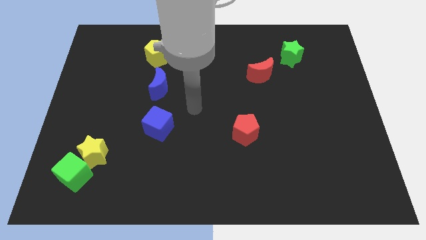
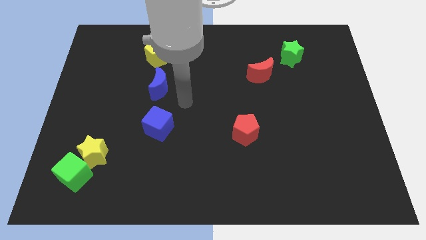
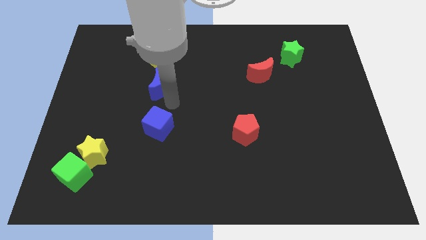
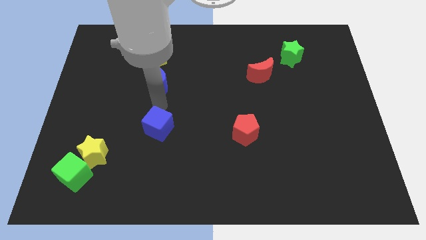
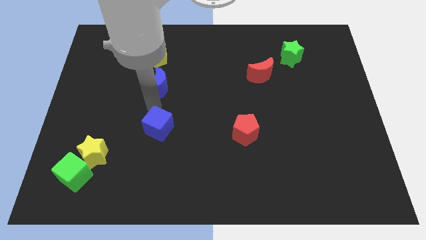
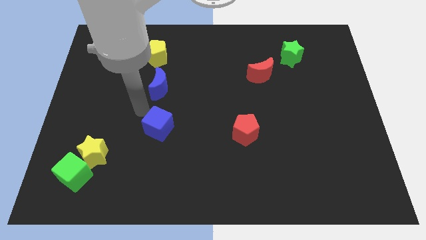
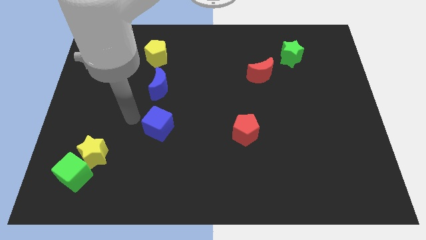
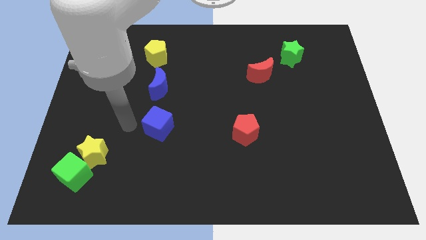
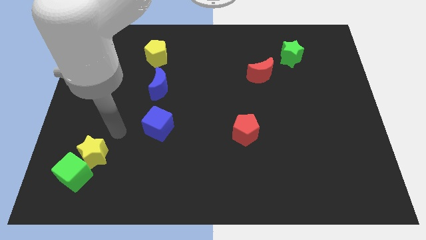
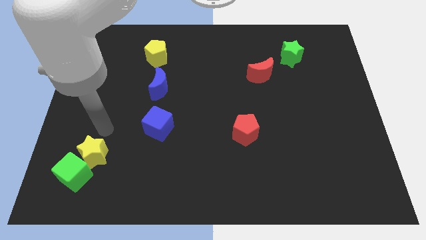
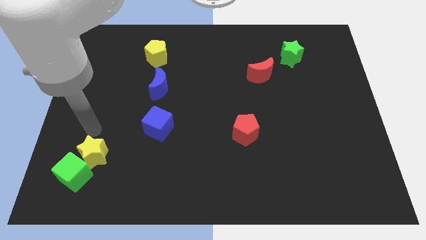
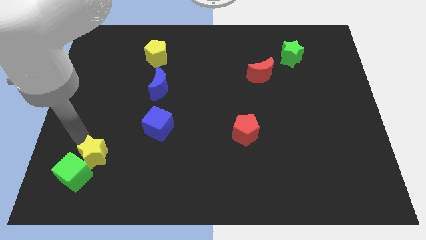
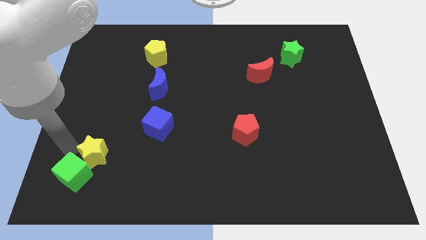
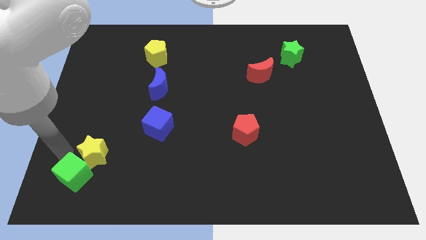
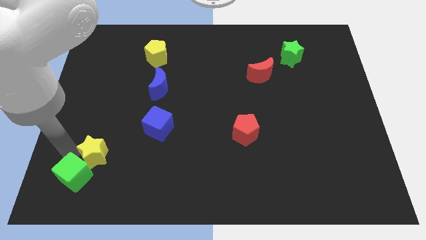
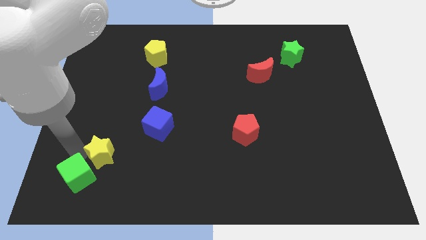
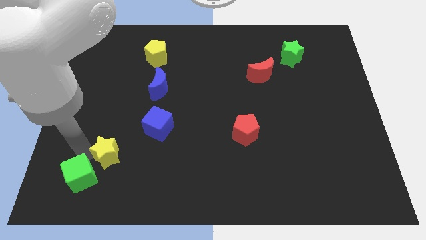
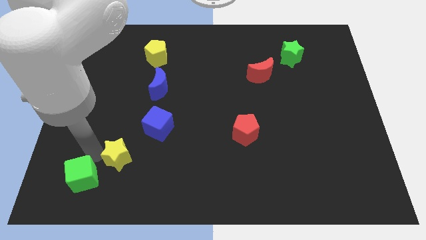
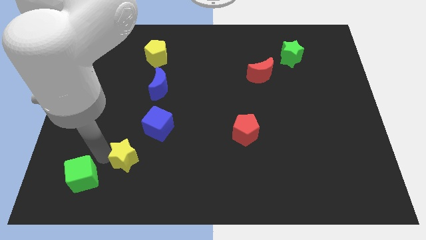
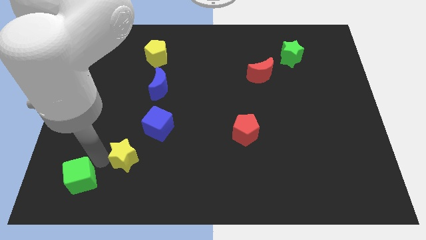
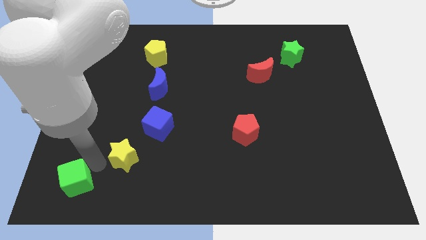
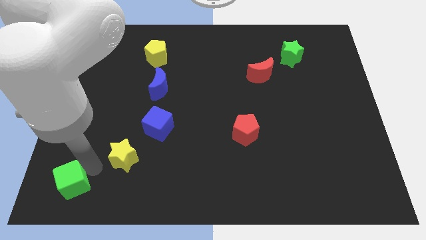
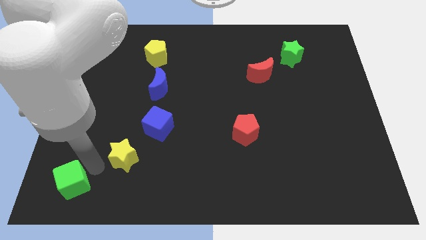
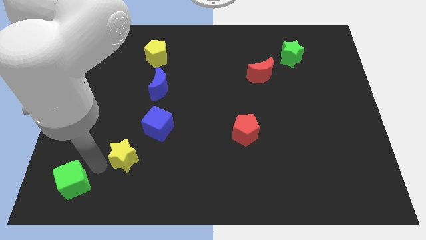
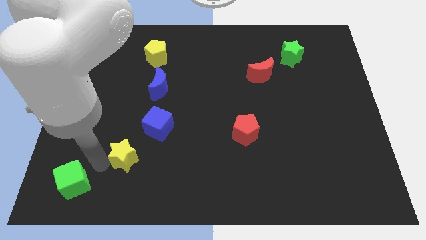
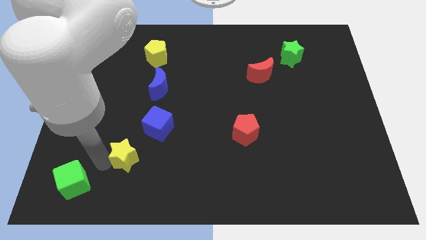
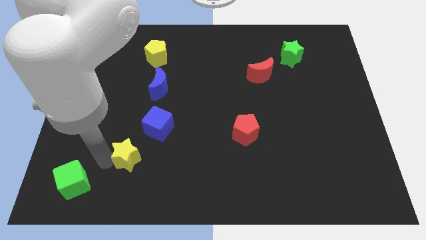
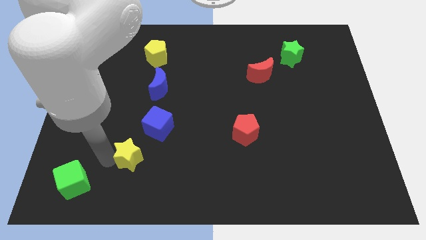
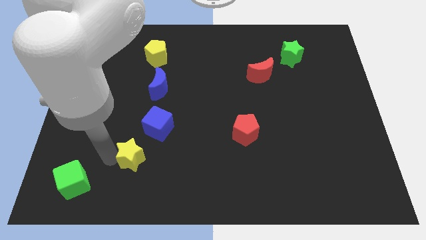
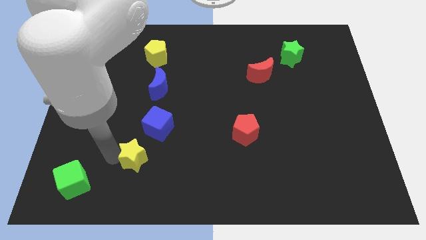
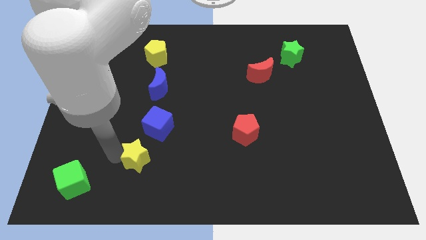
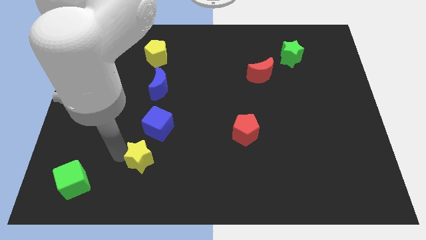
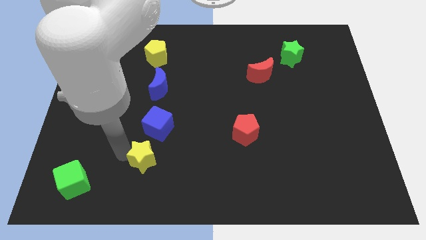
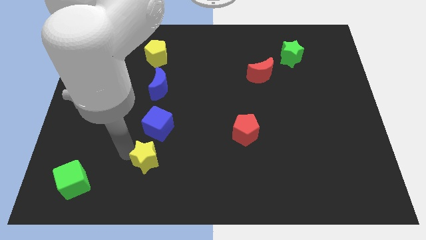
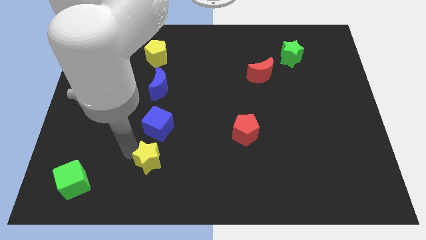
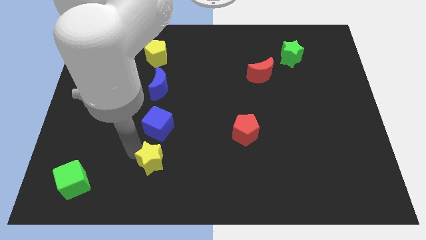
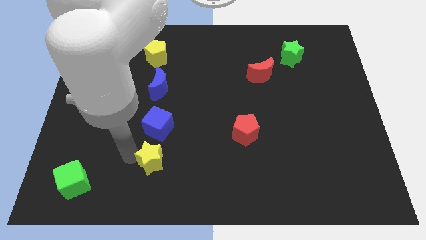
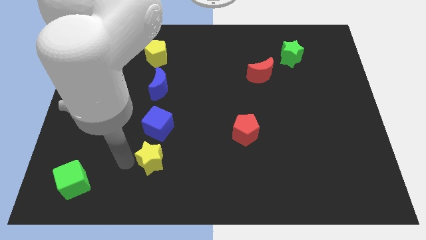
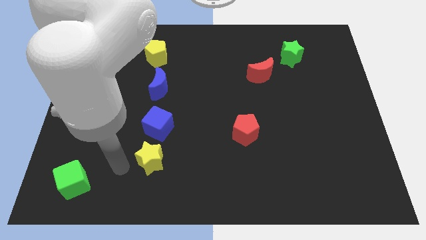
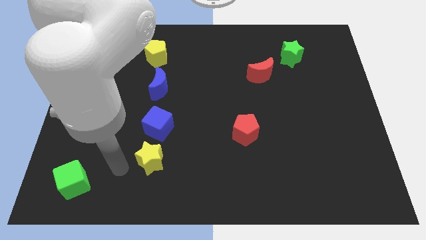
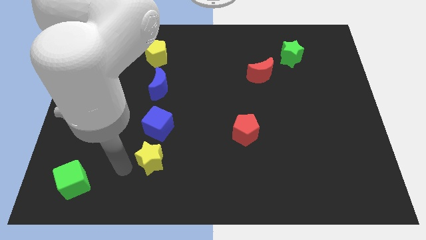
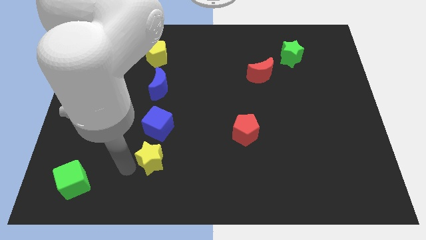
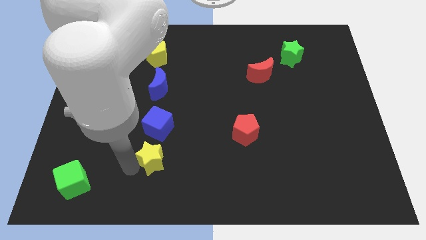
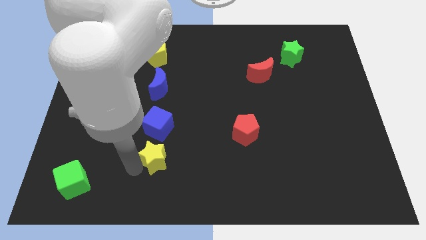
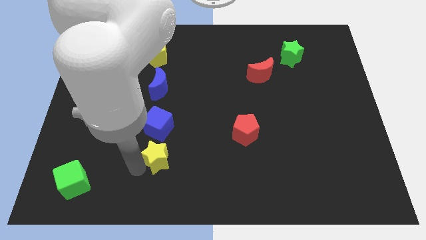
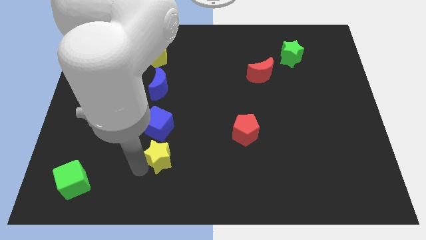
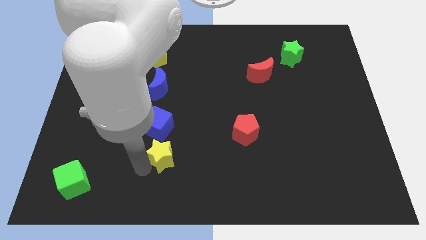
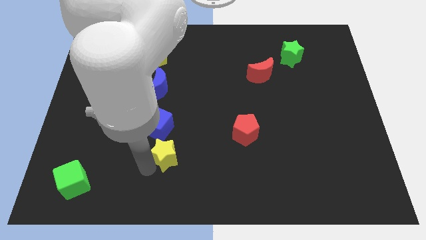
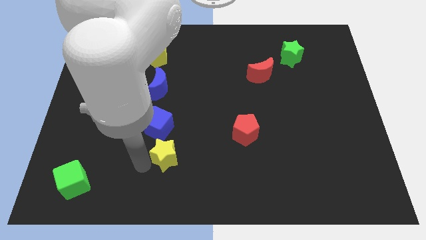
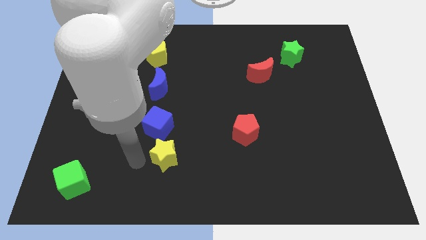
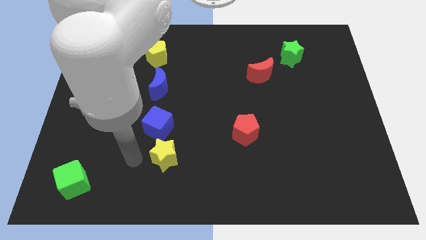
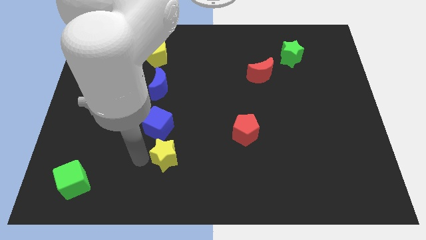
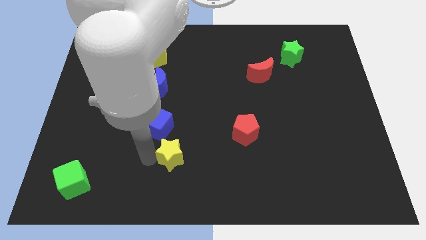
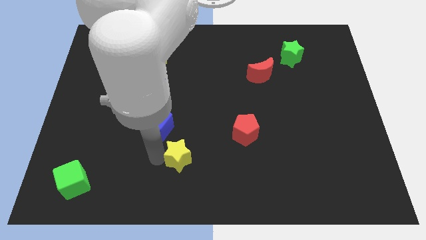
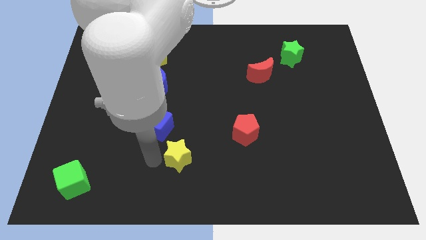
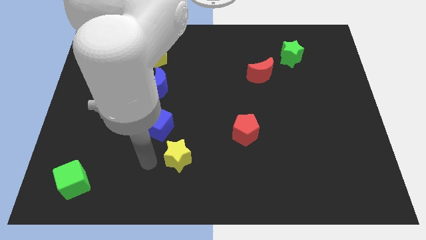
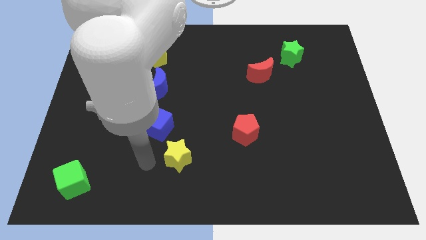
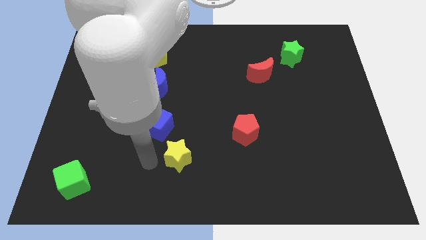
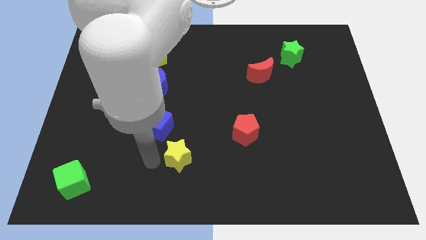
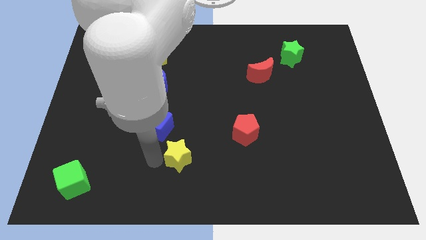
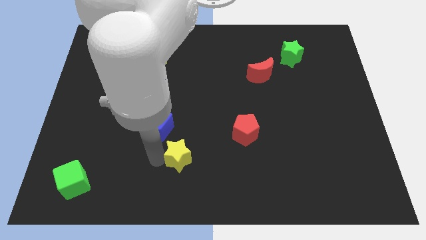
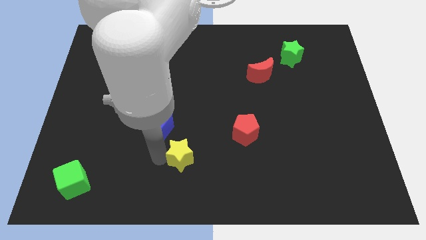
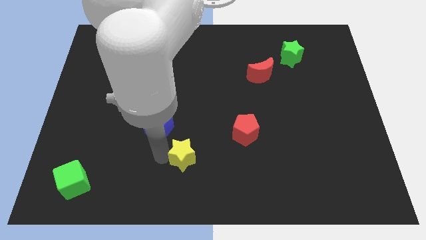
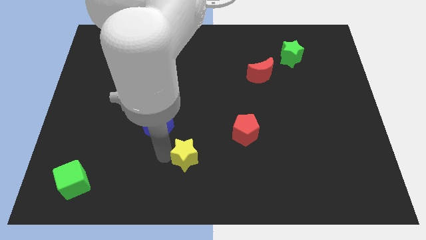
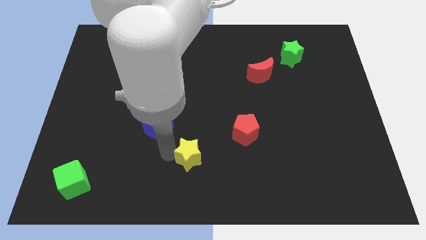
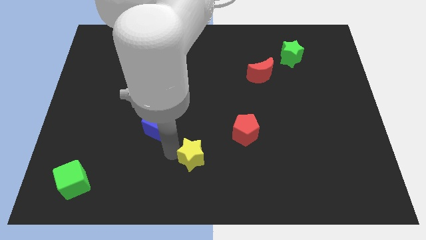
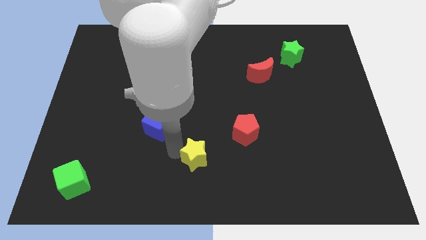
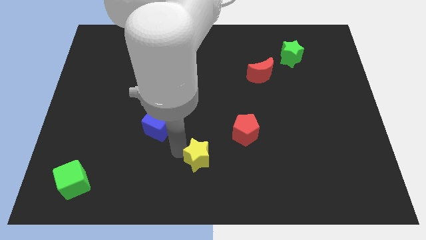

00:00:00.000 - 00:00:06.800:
move the yellow star diagonally down and to the left of the red pentagon
